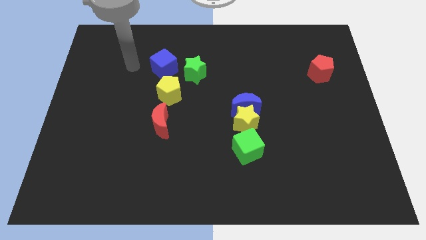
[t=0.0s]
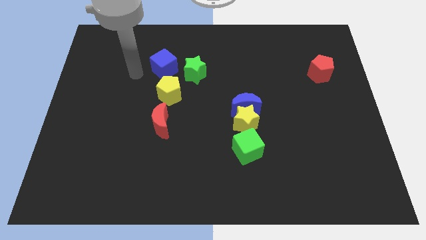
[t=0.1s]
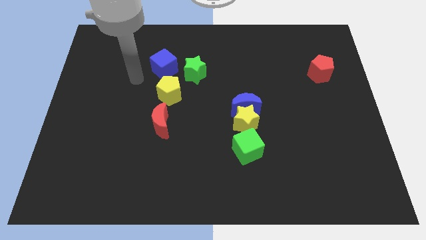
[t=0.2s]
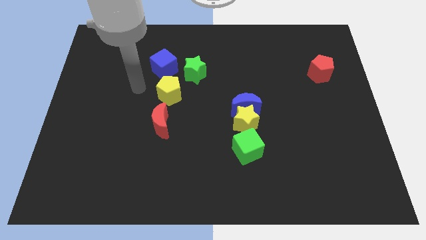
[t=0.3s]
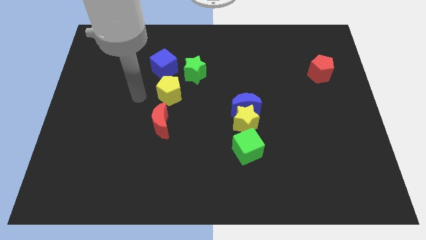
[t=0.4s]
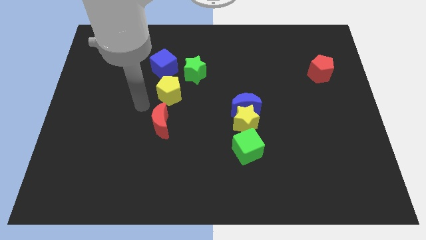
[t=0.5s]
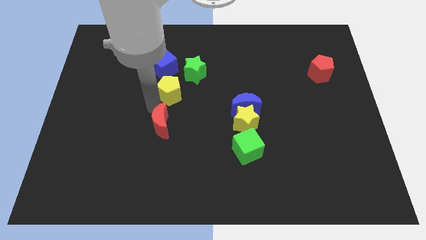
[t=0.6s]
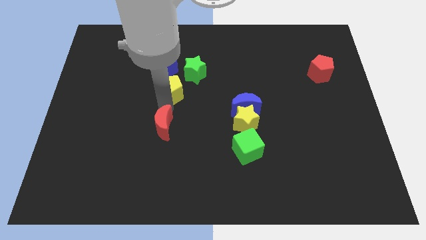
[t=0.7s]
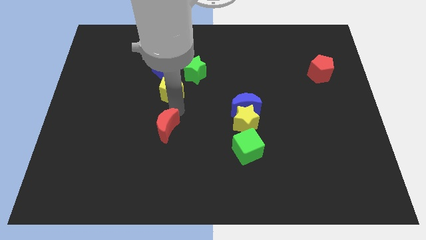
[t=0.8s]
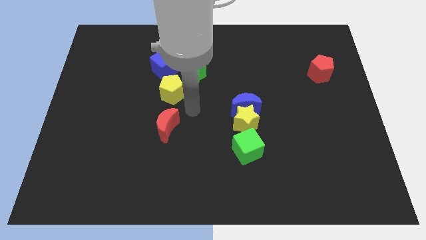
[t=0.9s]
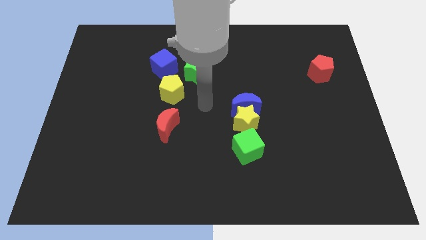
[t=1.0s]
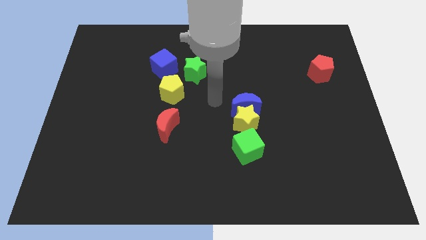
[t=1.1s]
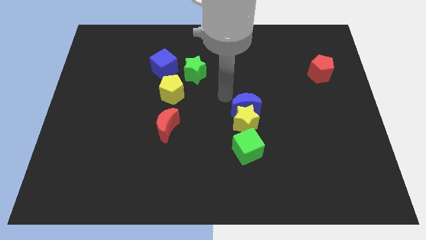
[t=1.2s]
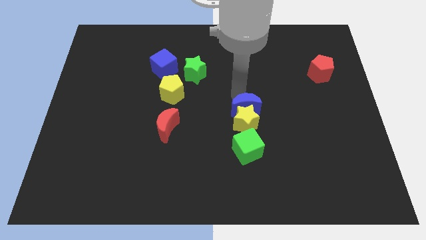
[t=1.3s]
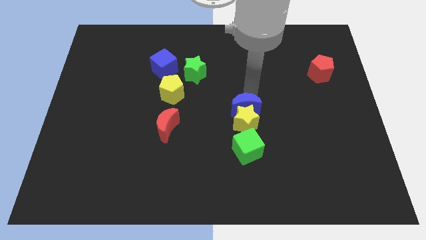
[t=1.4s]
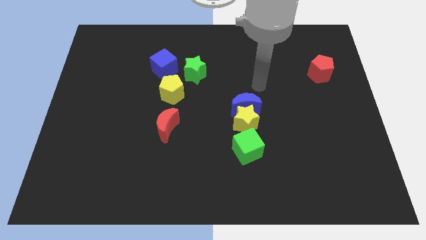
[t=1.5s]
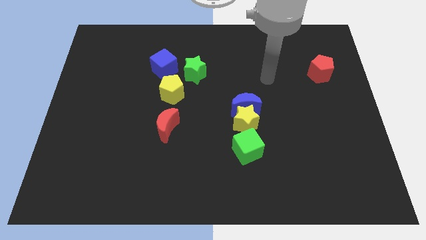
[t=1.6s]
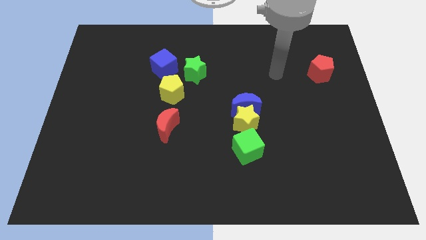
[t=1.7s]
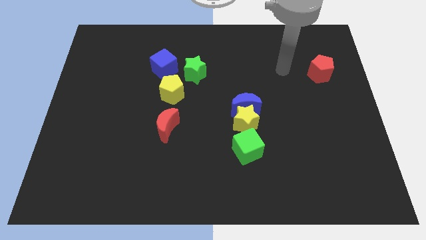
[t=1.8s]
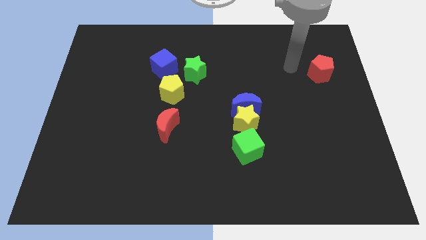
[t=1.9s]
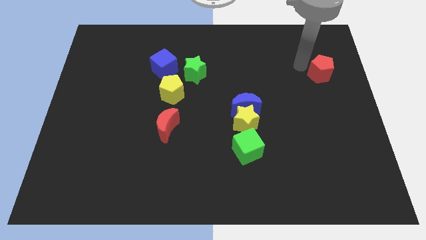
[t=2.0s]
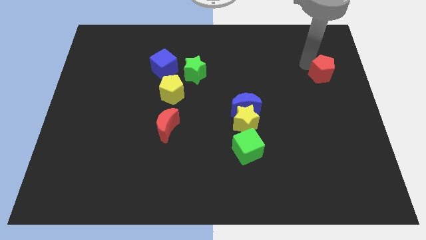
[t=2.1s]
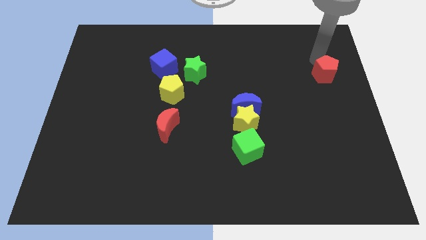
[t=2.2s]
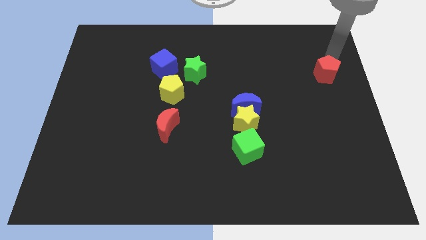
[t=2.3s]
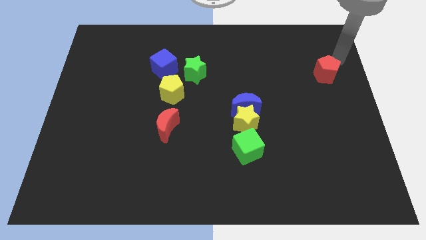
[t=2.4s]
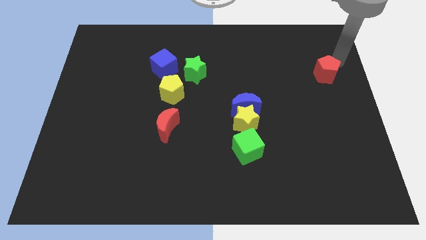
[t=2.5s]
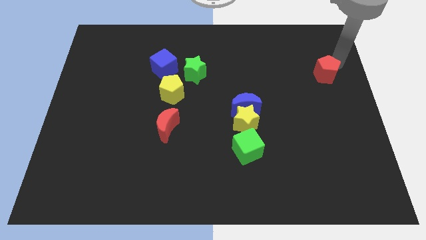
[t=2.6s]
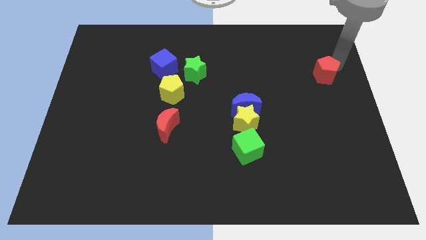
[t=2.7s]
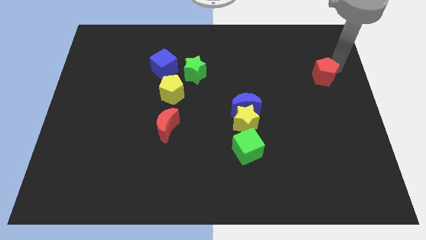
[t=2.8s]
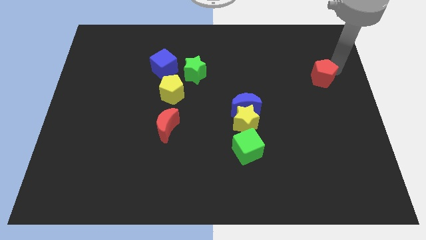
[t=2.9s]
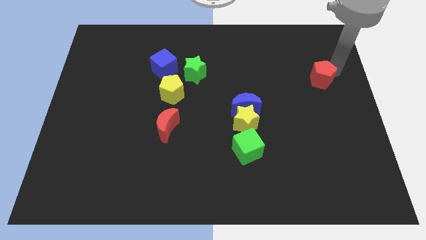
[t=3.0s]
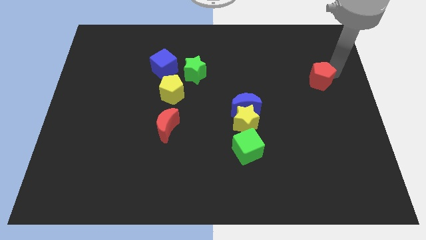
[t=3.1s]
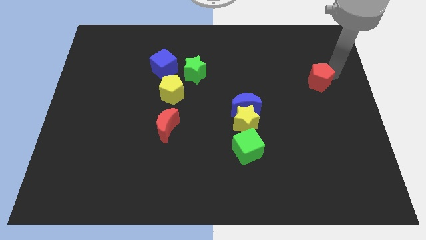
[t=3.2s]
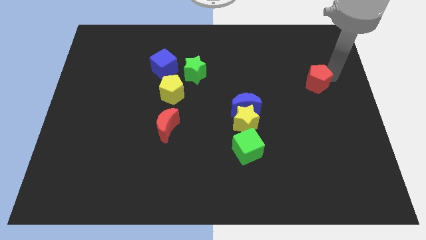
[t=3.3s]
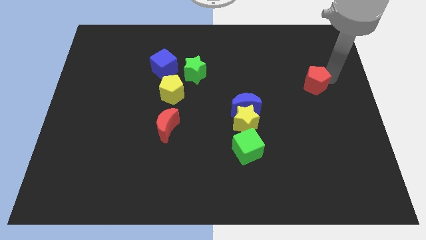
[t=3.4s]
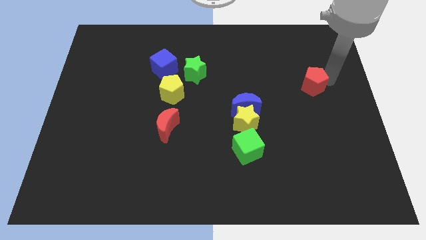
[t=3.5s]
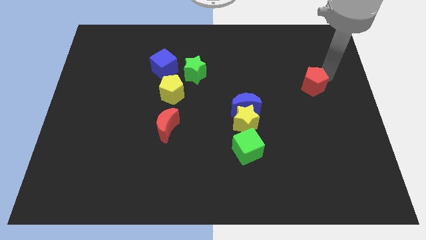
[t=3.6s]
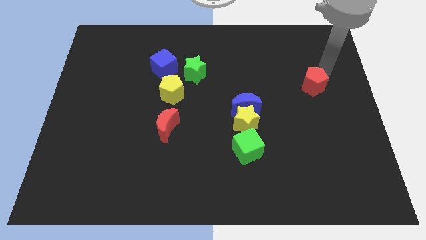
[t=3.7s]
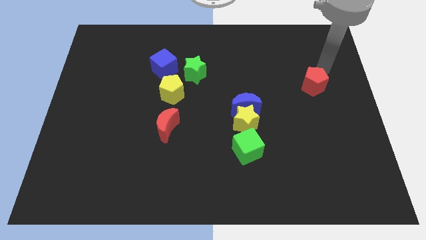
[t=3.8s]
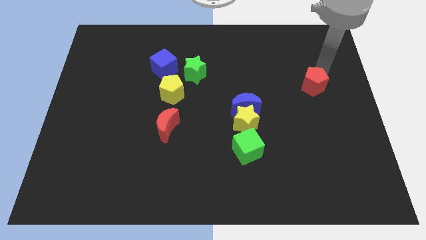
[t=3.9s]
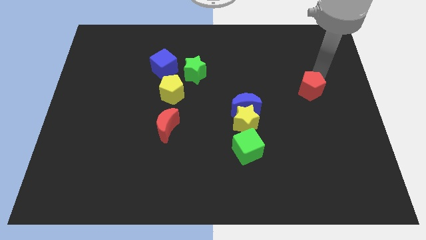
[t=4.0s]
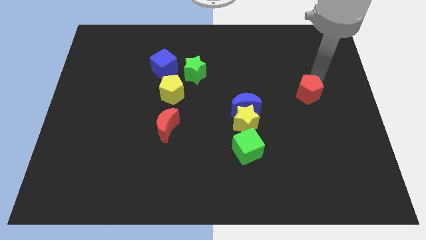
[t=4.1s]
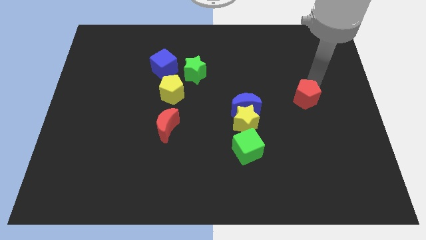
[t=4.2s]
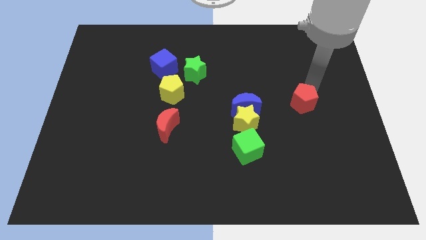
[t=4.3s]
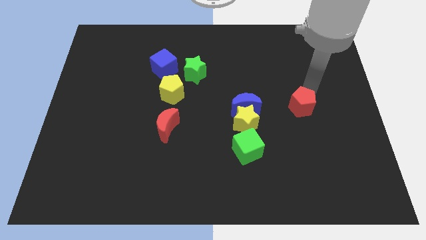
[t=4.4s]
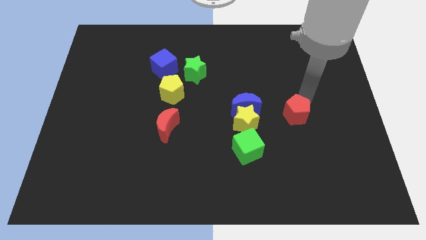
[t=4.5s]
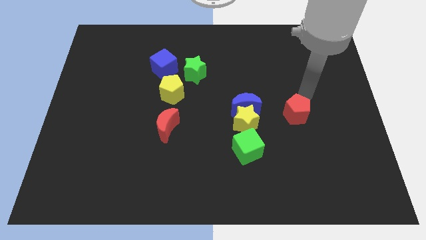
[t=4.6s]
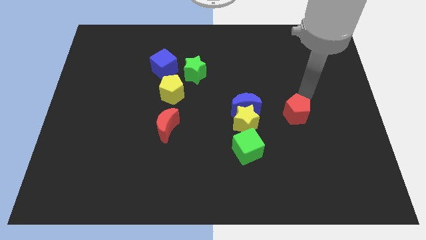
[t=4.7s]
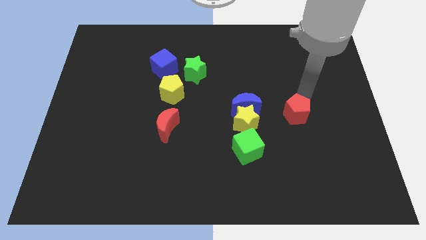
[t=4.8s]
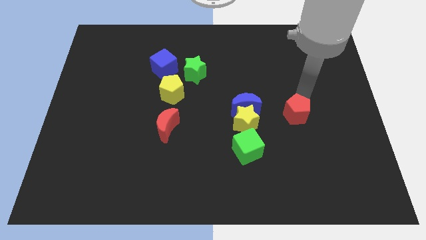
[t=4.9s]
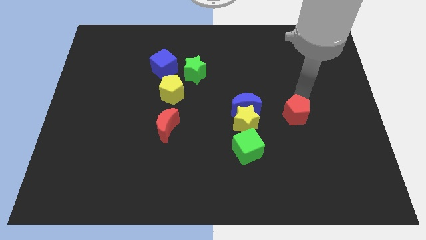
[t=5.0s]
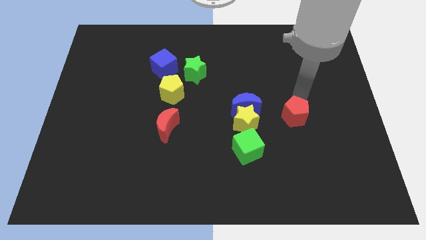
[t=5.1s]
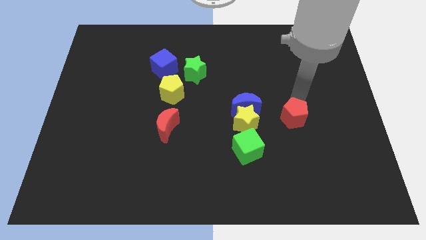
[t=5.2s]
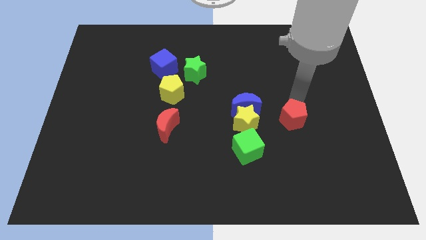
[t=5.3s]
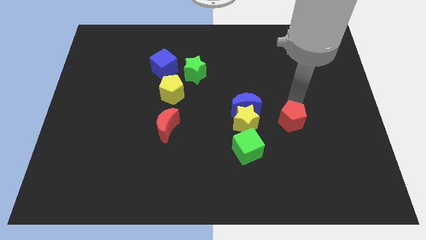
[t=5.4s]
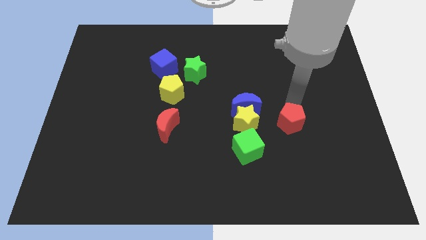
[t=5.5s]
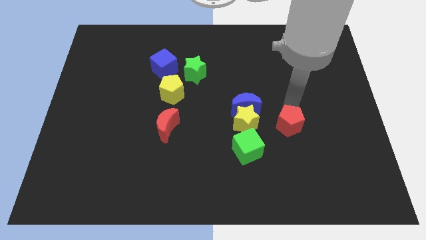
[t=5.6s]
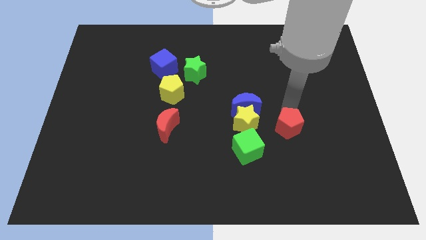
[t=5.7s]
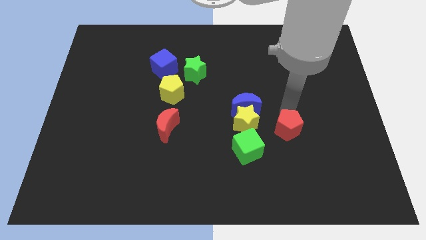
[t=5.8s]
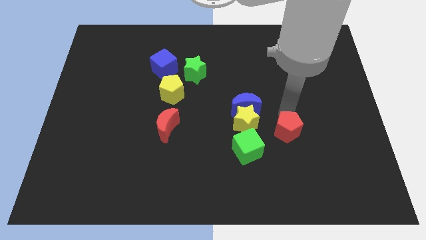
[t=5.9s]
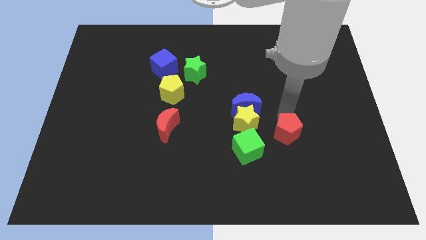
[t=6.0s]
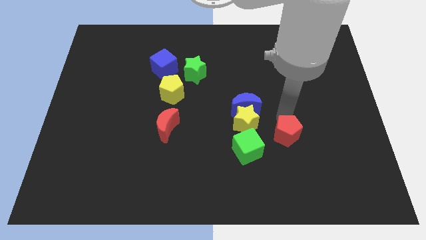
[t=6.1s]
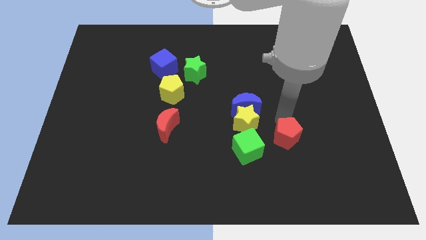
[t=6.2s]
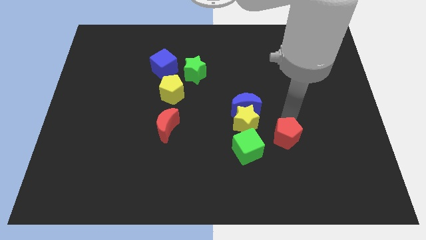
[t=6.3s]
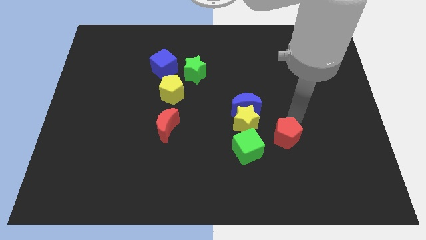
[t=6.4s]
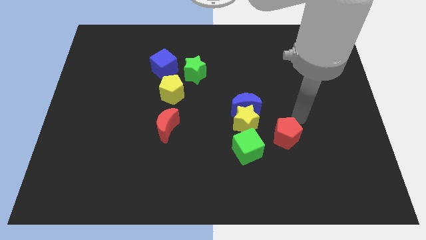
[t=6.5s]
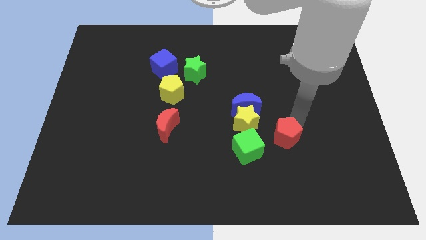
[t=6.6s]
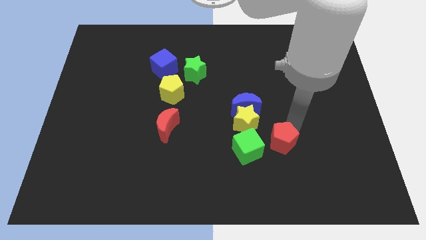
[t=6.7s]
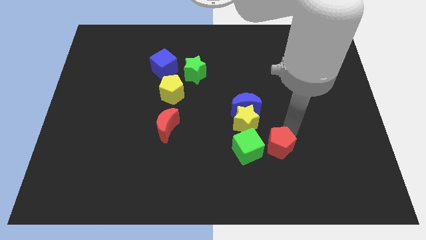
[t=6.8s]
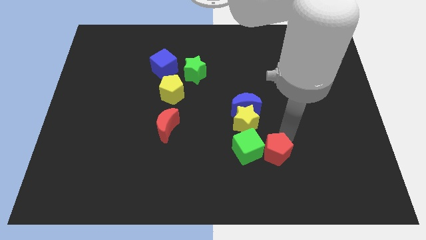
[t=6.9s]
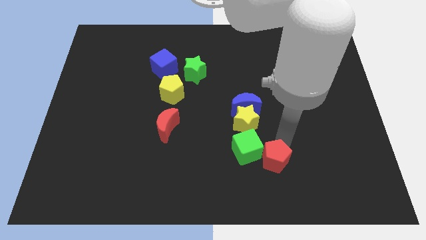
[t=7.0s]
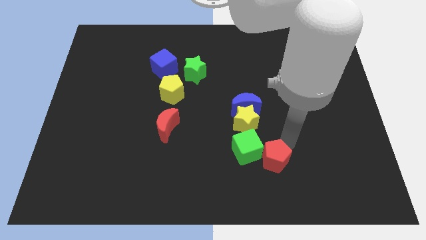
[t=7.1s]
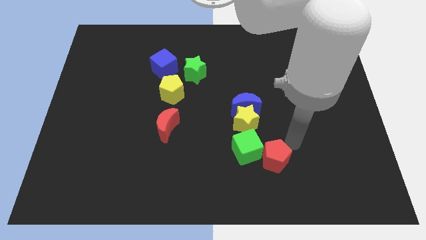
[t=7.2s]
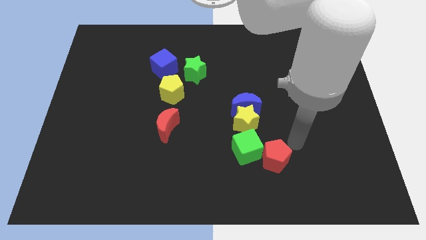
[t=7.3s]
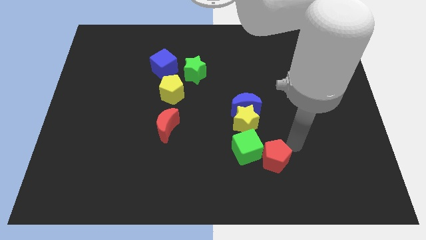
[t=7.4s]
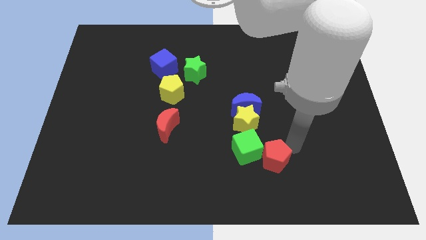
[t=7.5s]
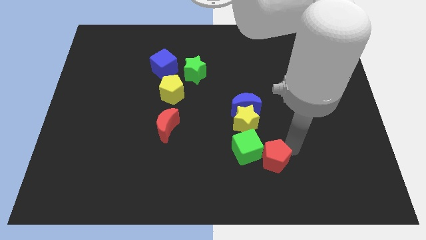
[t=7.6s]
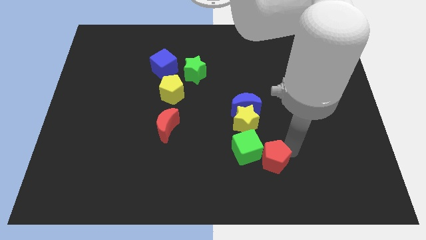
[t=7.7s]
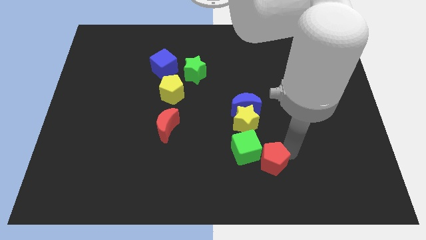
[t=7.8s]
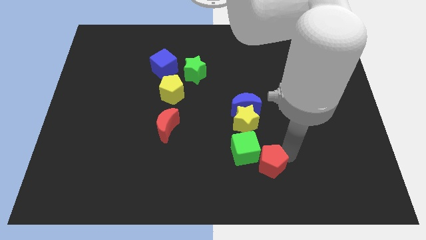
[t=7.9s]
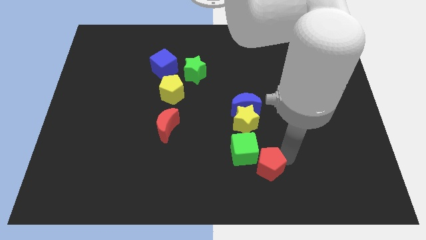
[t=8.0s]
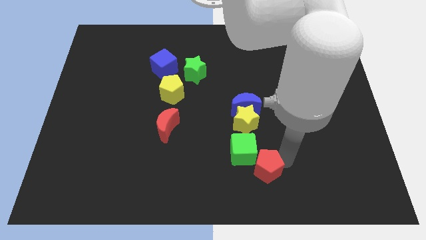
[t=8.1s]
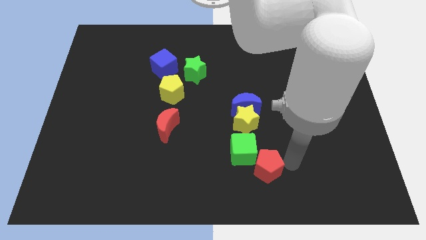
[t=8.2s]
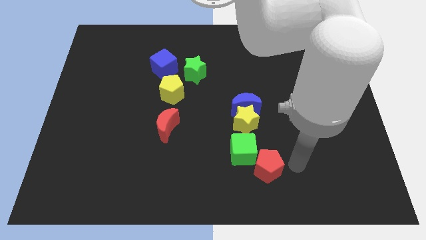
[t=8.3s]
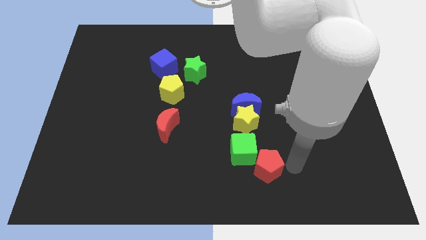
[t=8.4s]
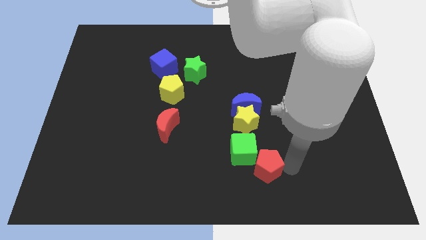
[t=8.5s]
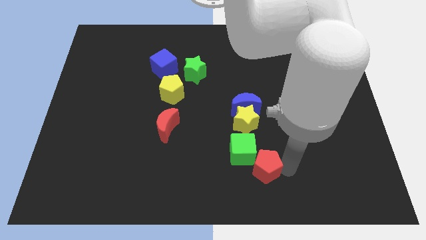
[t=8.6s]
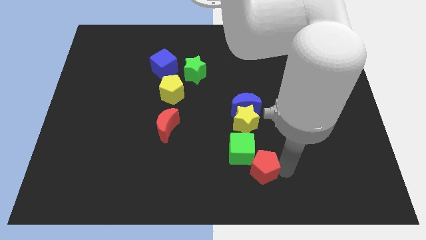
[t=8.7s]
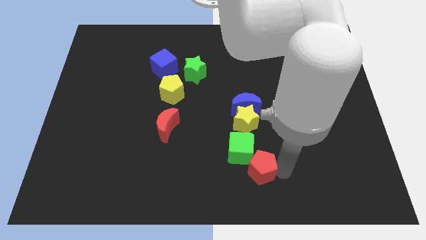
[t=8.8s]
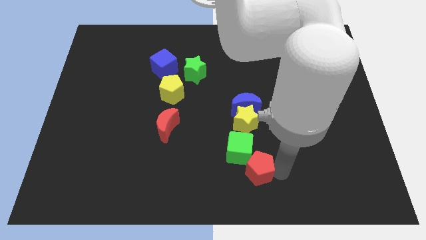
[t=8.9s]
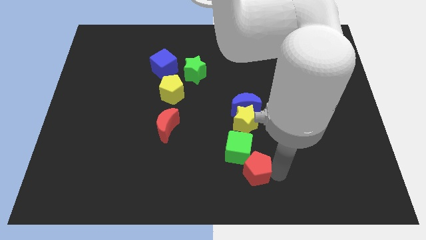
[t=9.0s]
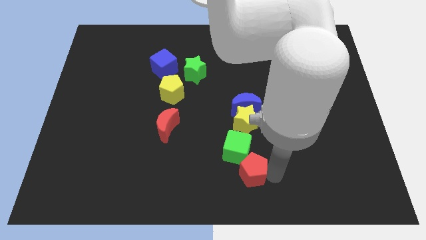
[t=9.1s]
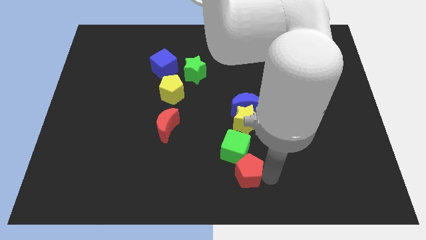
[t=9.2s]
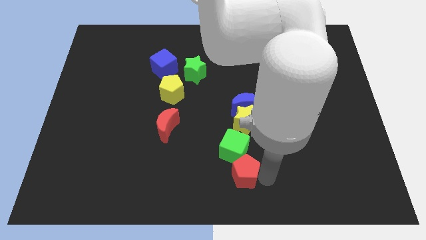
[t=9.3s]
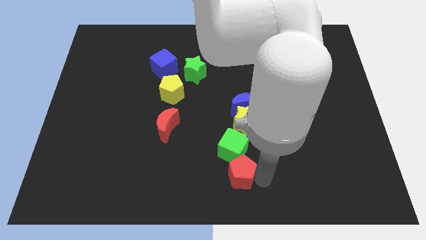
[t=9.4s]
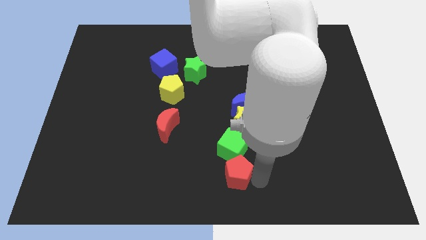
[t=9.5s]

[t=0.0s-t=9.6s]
move the red pentagon diagonally down and to the left of the green cube
